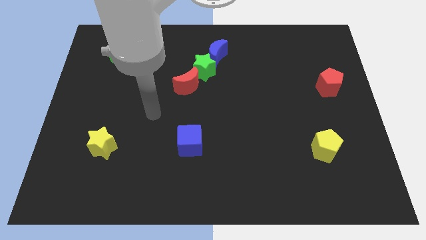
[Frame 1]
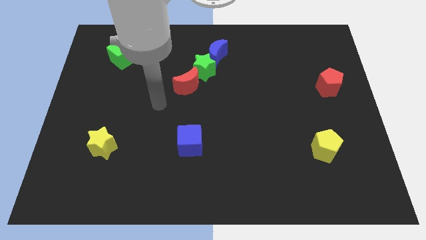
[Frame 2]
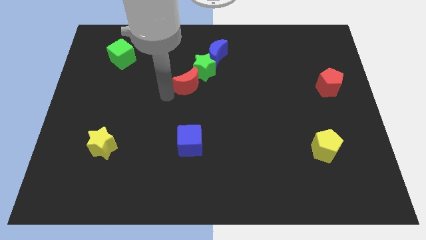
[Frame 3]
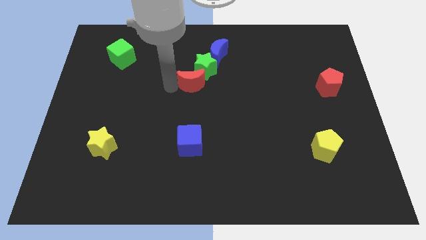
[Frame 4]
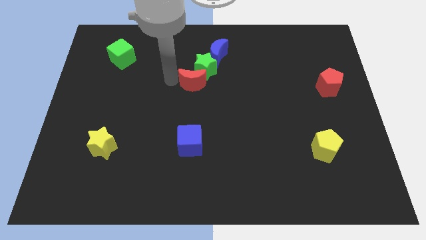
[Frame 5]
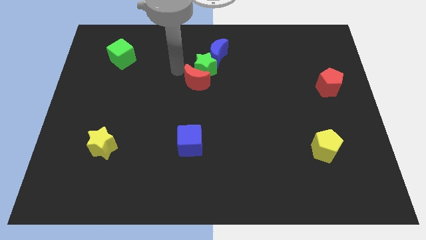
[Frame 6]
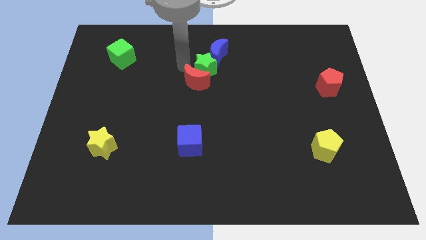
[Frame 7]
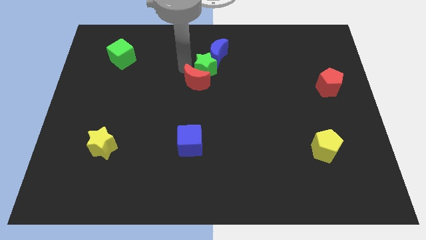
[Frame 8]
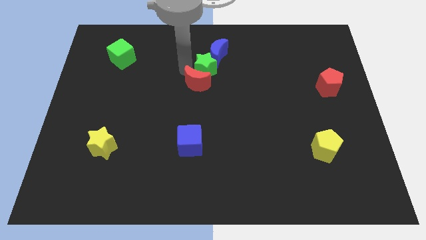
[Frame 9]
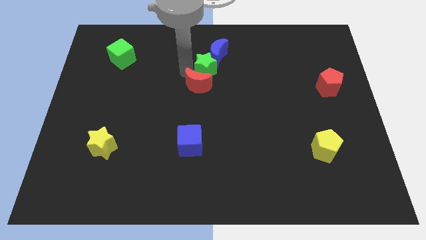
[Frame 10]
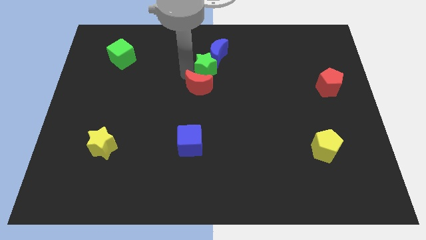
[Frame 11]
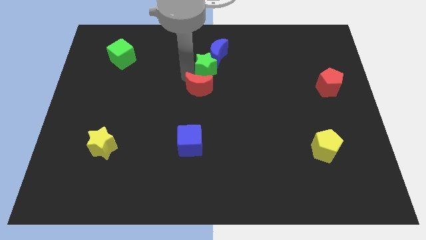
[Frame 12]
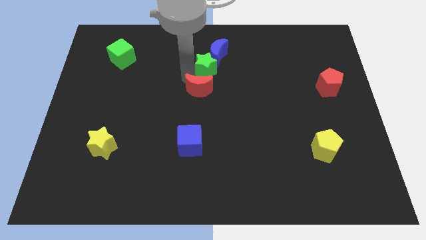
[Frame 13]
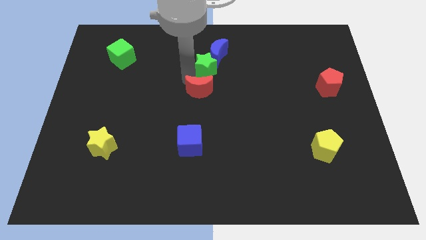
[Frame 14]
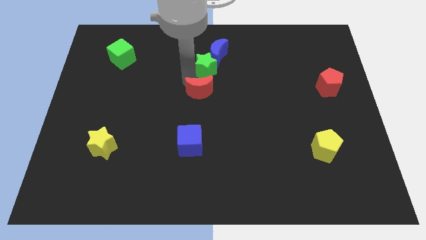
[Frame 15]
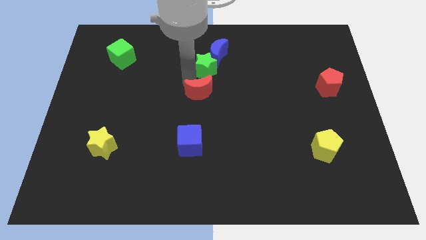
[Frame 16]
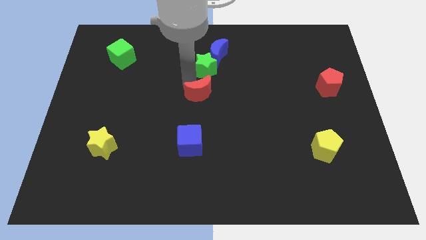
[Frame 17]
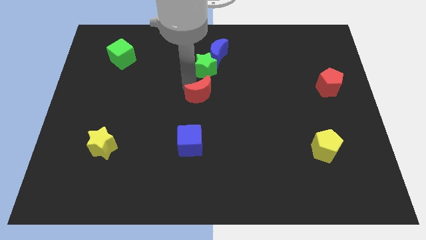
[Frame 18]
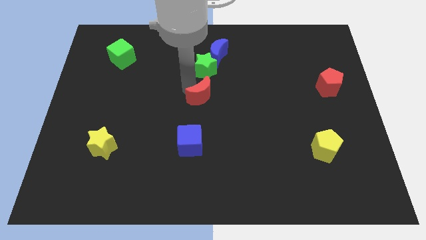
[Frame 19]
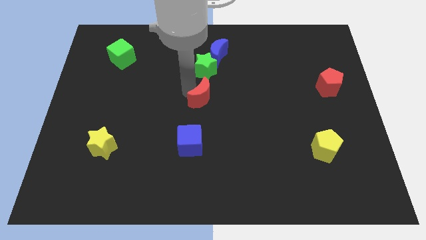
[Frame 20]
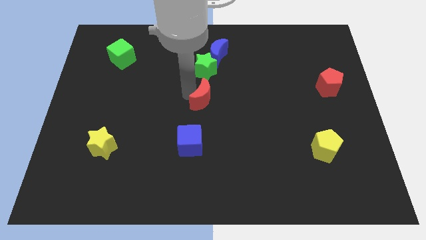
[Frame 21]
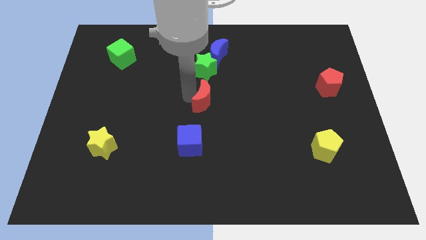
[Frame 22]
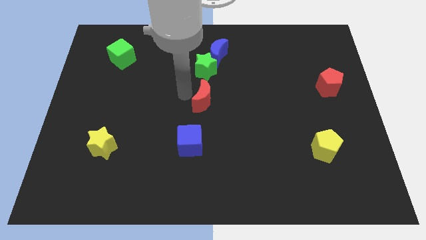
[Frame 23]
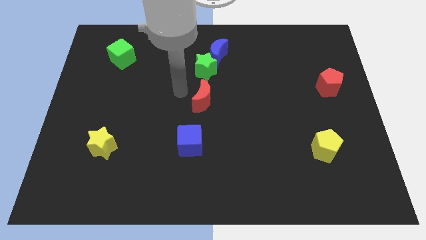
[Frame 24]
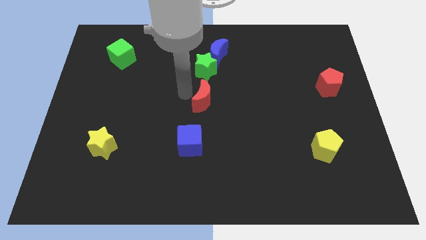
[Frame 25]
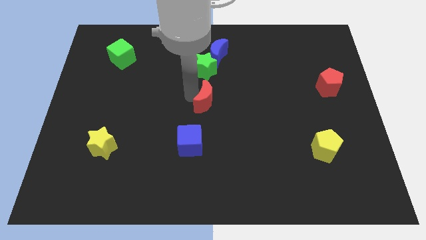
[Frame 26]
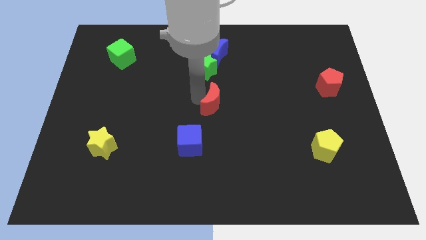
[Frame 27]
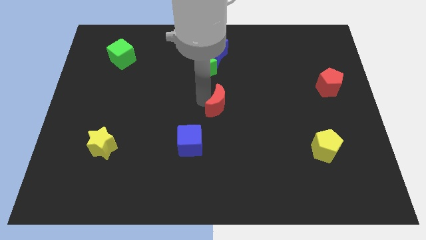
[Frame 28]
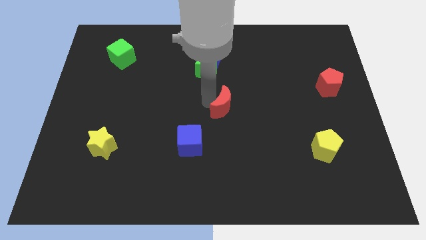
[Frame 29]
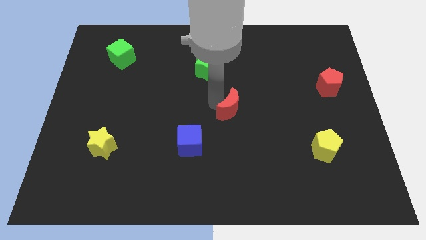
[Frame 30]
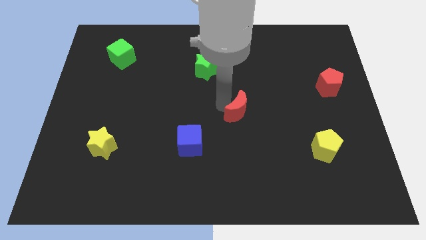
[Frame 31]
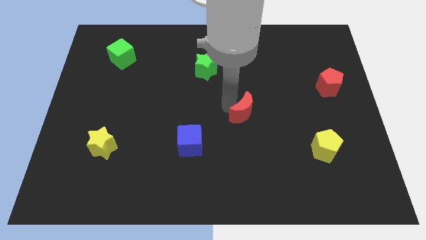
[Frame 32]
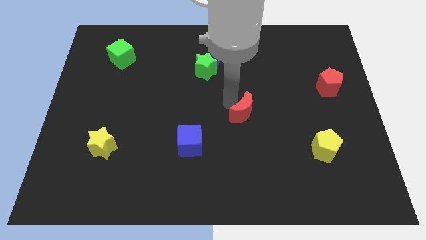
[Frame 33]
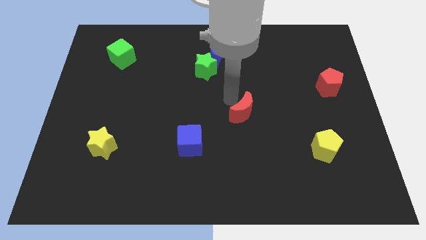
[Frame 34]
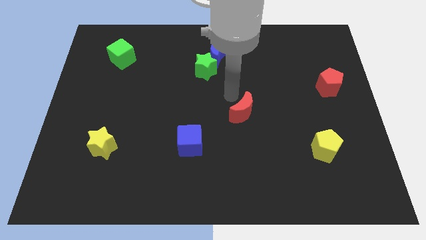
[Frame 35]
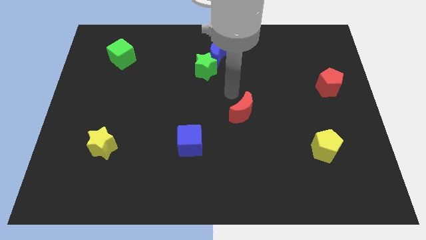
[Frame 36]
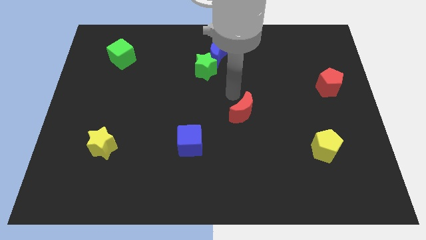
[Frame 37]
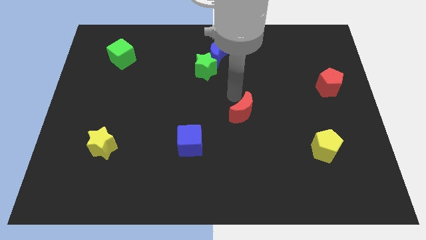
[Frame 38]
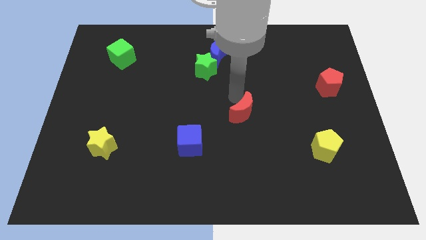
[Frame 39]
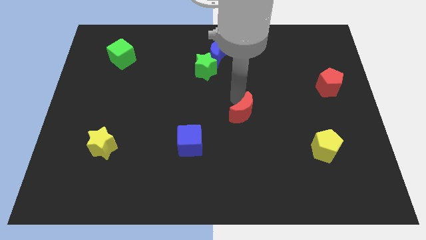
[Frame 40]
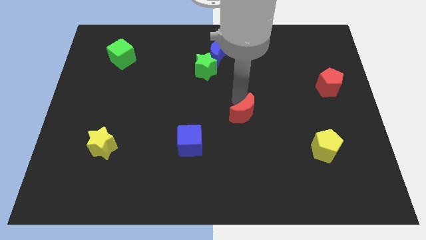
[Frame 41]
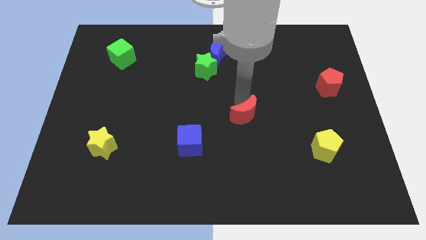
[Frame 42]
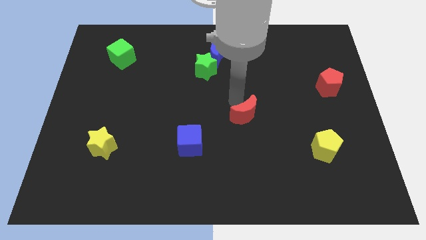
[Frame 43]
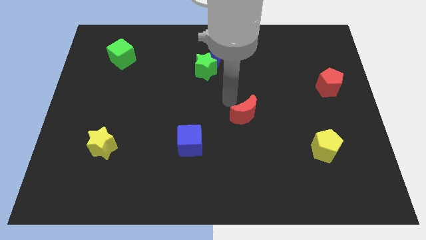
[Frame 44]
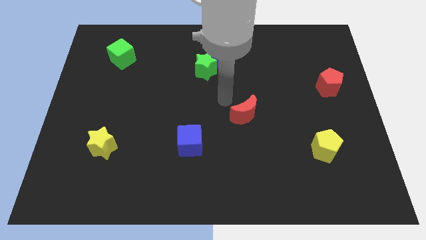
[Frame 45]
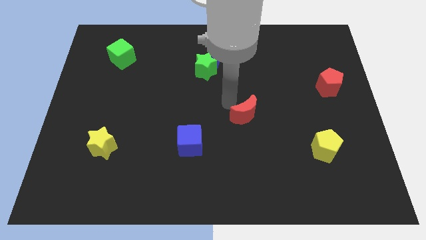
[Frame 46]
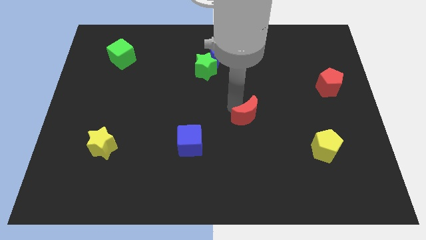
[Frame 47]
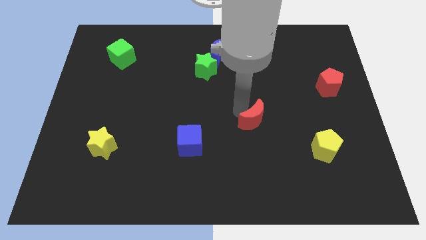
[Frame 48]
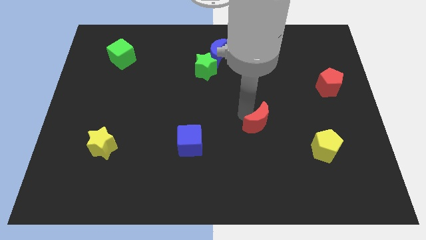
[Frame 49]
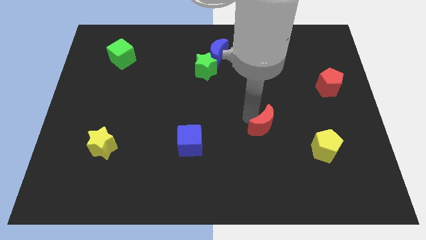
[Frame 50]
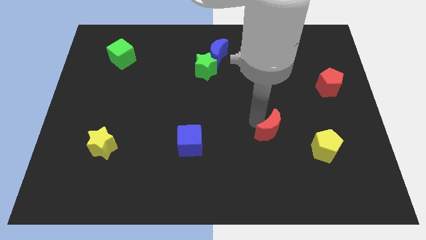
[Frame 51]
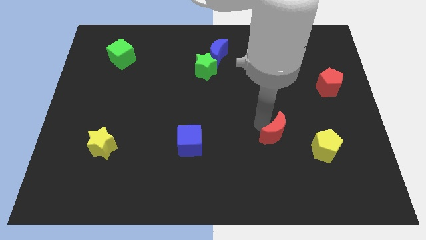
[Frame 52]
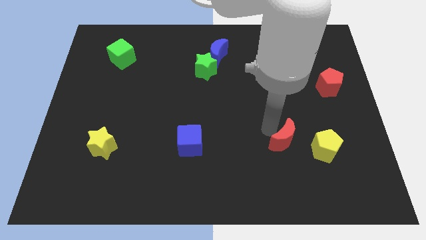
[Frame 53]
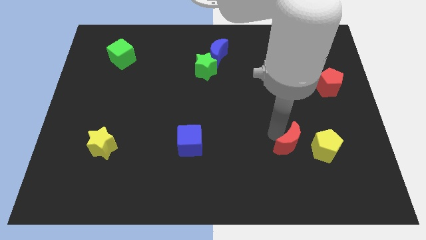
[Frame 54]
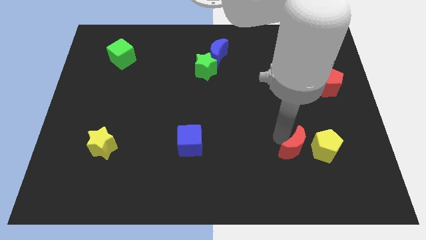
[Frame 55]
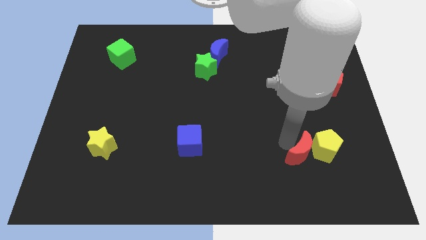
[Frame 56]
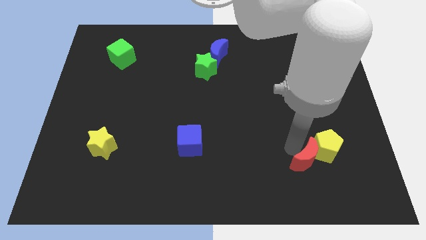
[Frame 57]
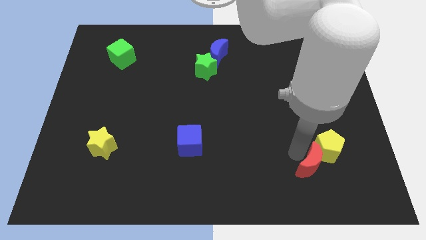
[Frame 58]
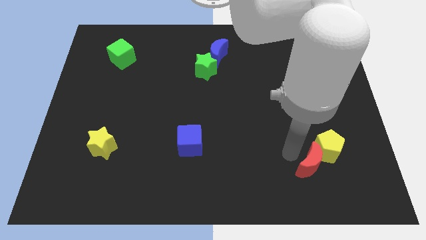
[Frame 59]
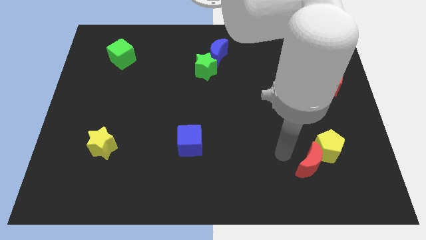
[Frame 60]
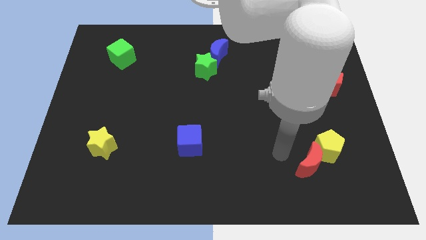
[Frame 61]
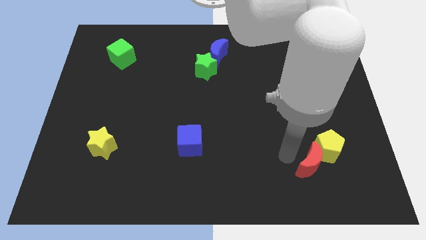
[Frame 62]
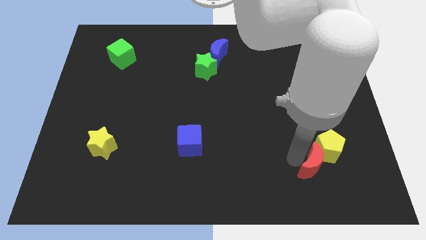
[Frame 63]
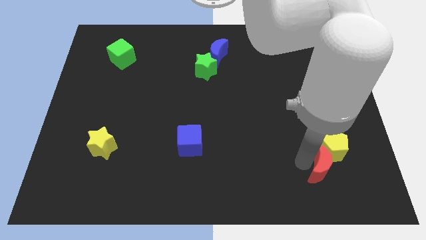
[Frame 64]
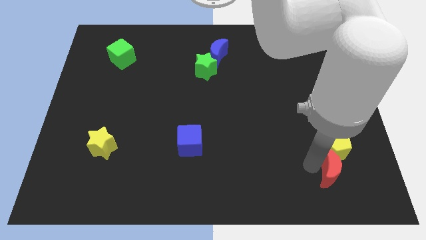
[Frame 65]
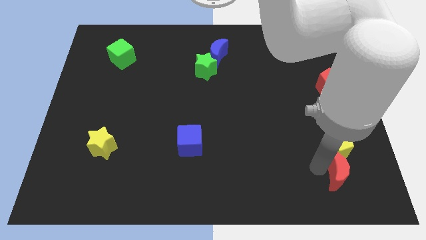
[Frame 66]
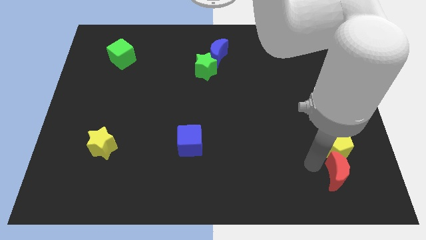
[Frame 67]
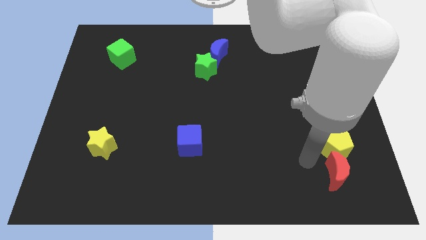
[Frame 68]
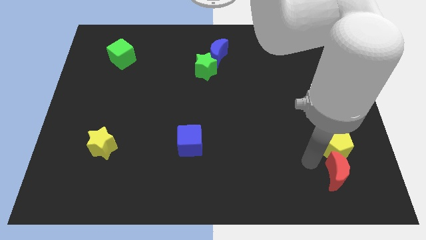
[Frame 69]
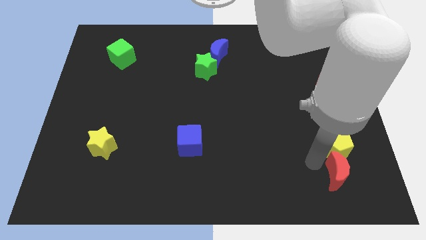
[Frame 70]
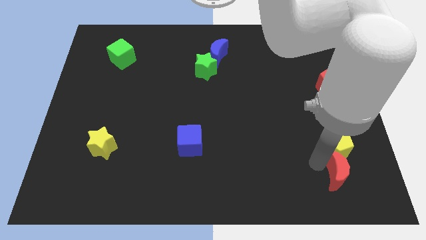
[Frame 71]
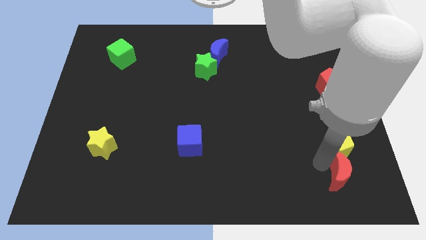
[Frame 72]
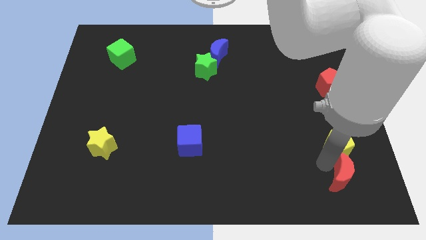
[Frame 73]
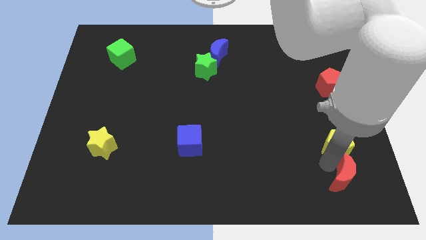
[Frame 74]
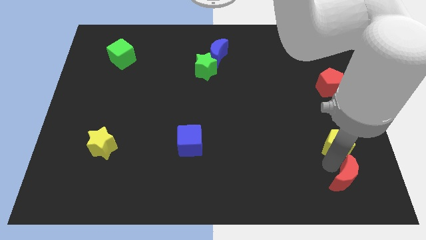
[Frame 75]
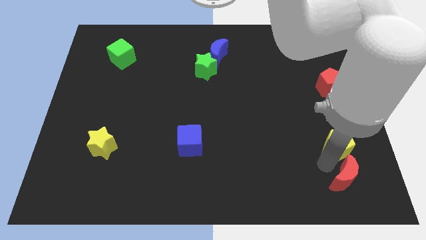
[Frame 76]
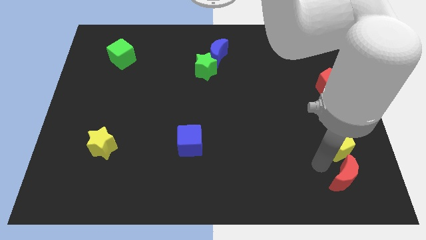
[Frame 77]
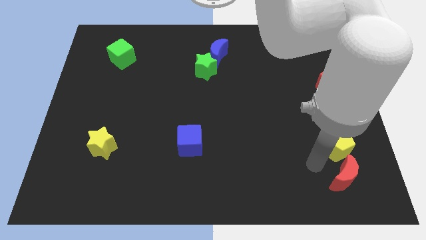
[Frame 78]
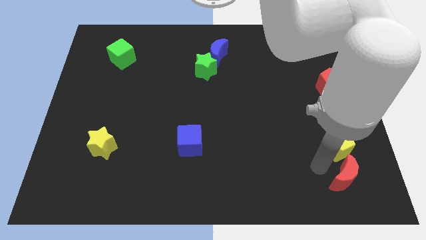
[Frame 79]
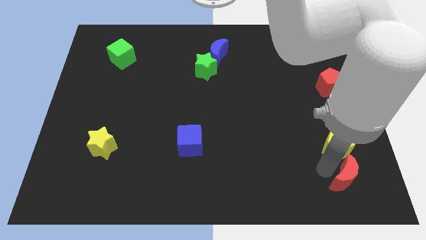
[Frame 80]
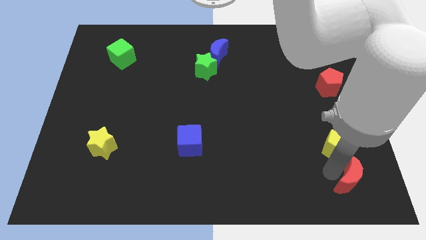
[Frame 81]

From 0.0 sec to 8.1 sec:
put the red moon to the lower right corner

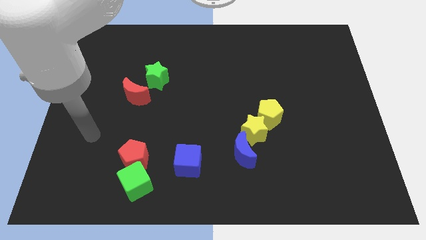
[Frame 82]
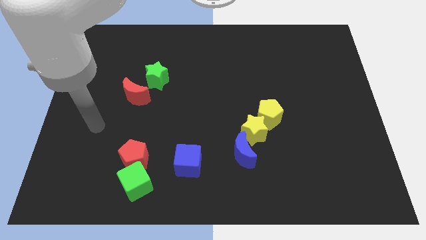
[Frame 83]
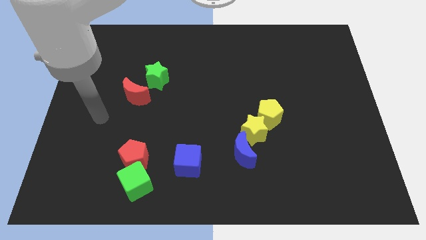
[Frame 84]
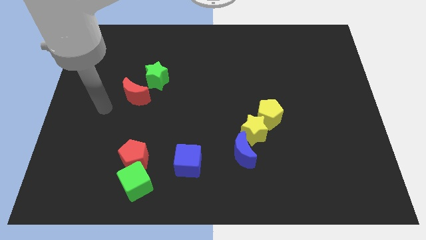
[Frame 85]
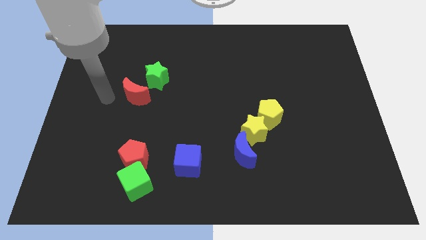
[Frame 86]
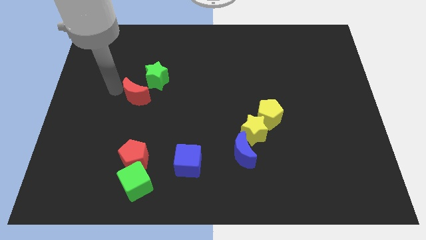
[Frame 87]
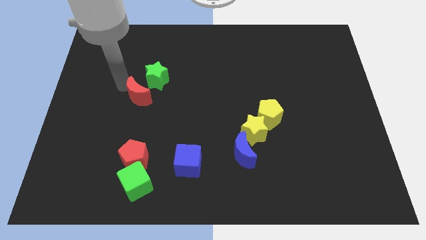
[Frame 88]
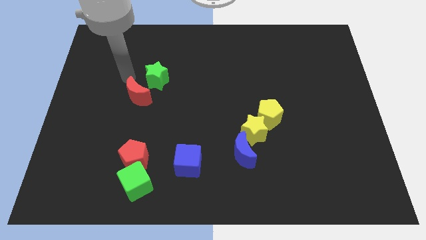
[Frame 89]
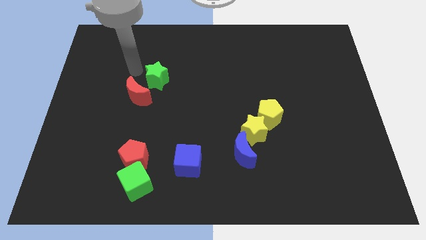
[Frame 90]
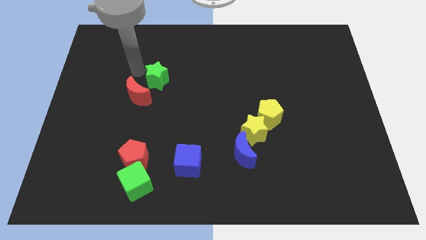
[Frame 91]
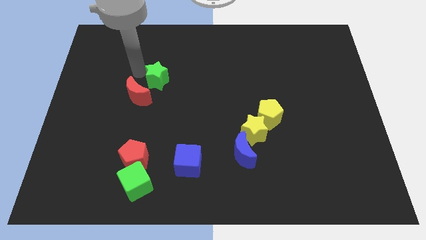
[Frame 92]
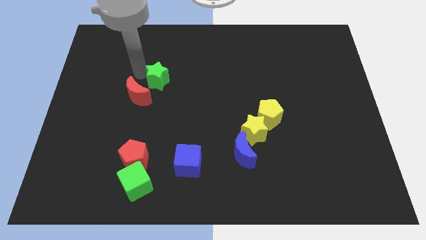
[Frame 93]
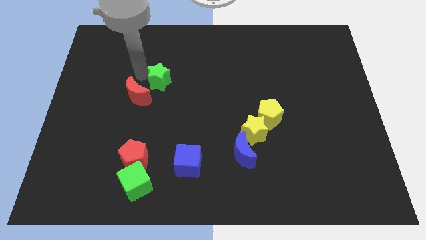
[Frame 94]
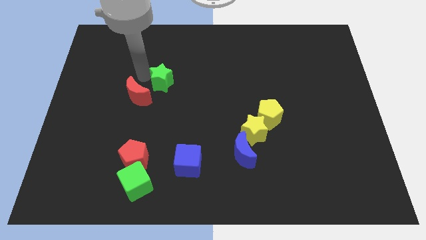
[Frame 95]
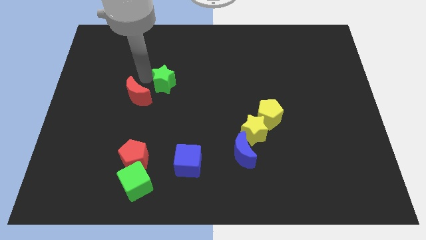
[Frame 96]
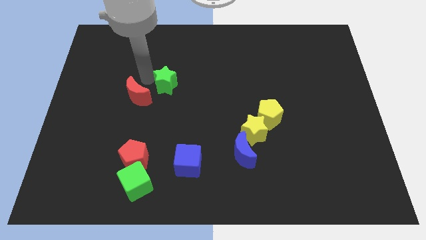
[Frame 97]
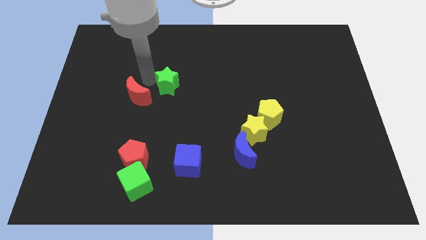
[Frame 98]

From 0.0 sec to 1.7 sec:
put the green star to the middle of the board
